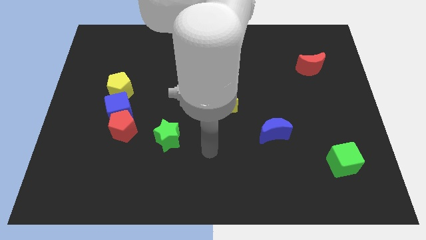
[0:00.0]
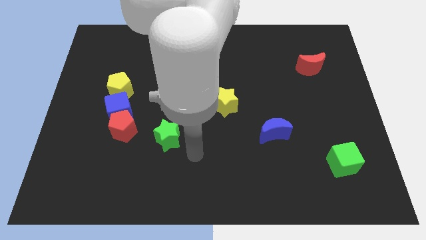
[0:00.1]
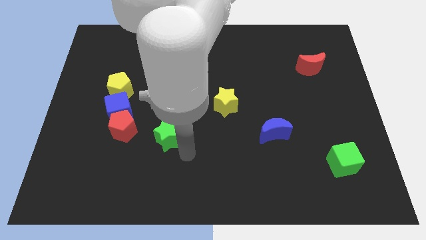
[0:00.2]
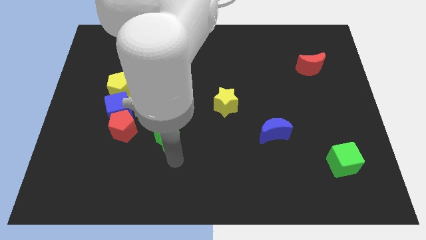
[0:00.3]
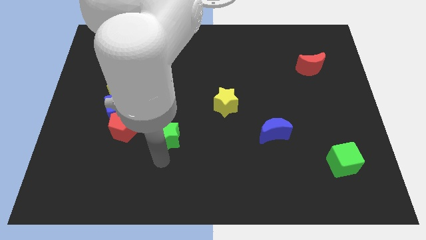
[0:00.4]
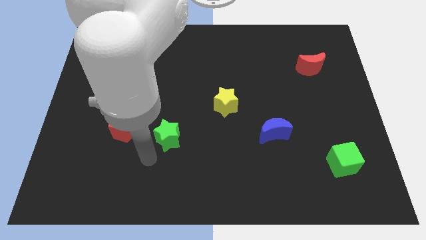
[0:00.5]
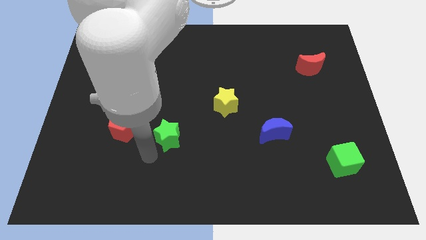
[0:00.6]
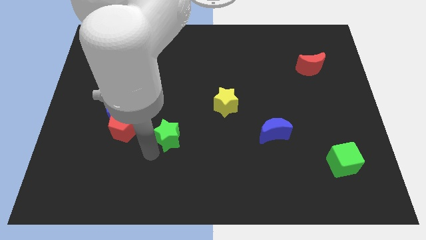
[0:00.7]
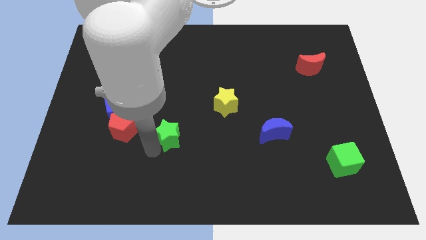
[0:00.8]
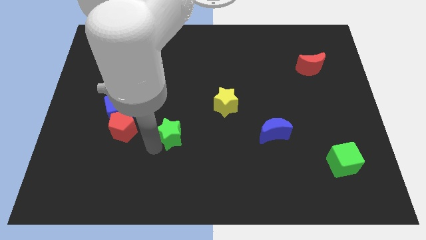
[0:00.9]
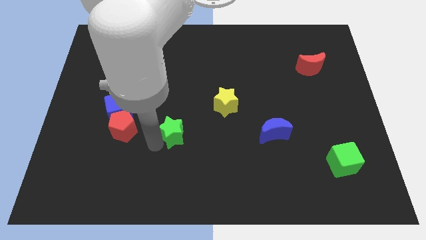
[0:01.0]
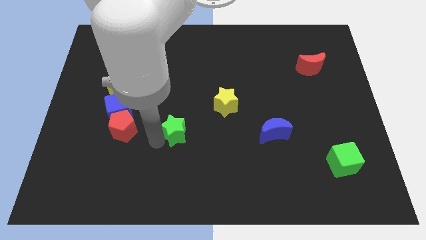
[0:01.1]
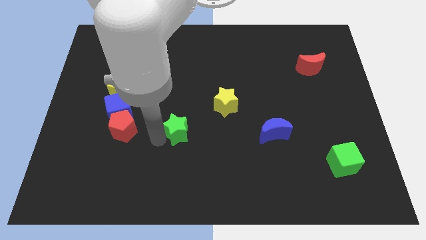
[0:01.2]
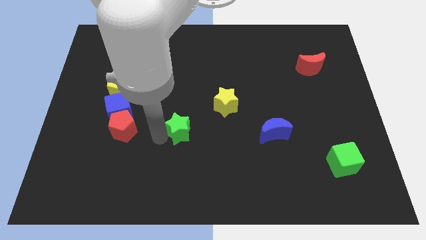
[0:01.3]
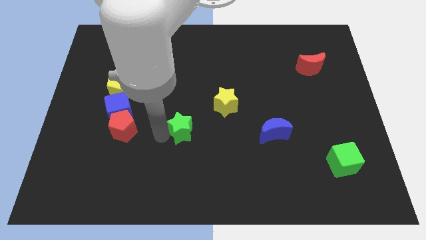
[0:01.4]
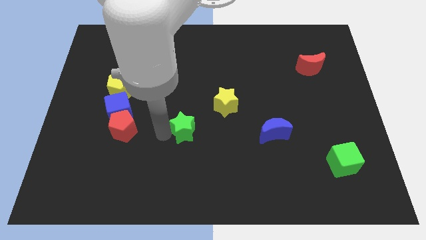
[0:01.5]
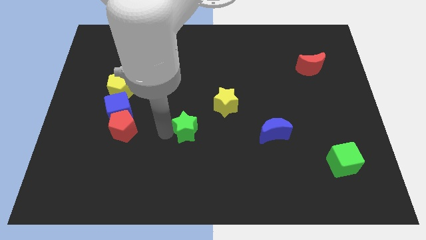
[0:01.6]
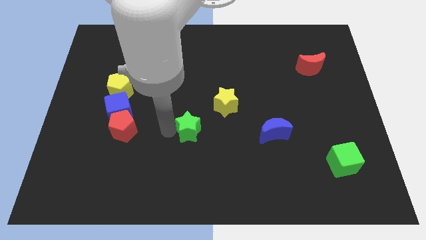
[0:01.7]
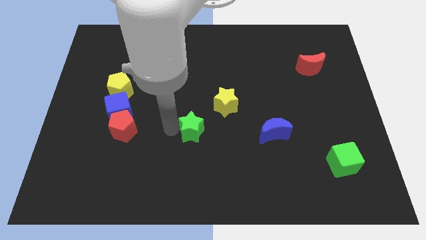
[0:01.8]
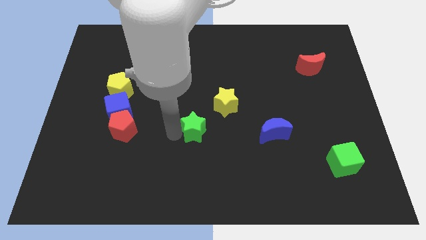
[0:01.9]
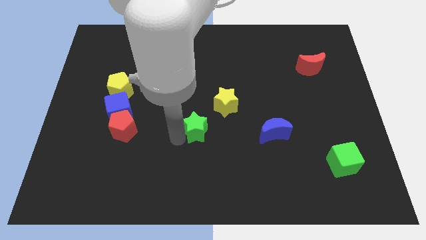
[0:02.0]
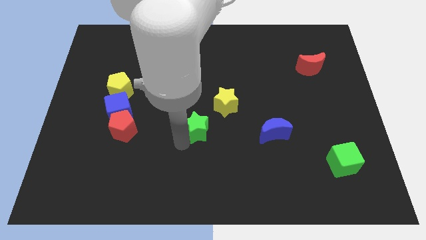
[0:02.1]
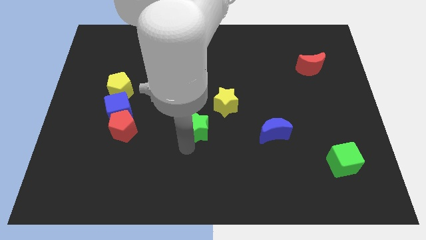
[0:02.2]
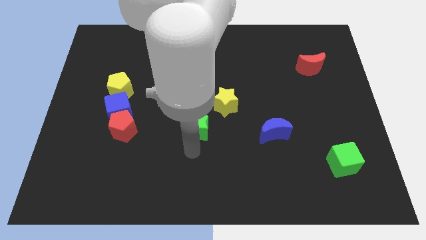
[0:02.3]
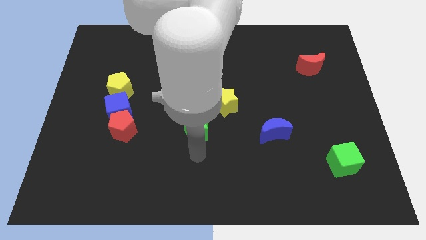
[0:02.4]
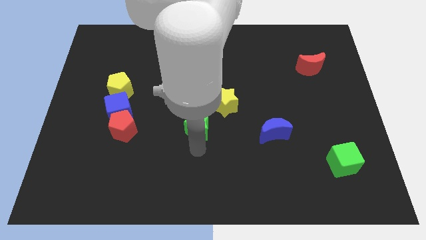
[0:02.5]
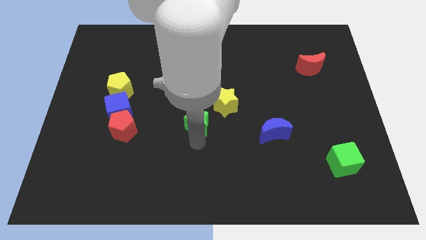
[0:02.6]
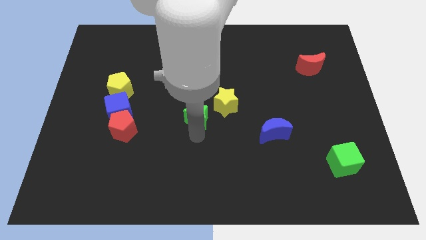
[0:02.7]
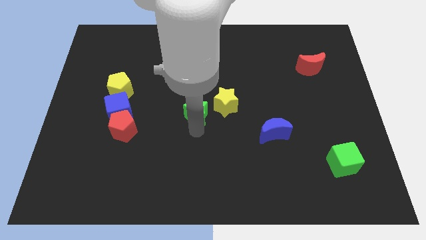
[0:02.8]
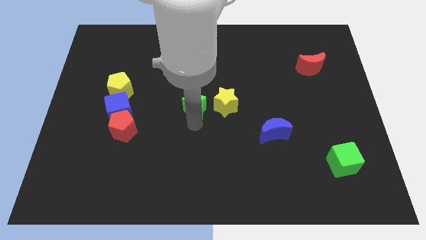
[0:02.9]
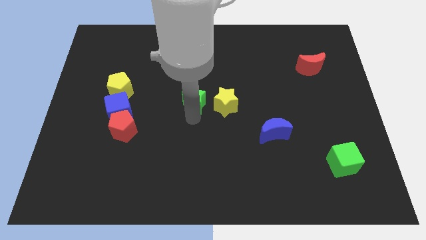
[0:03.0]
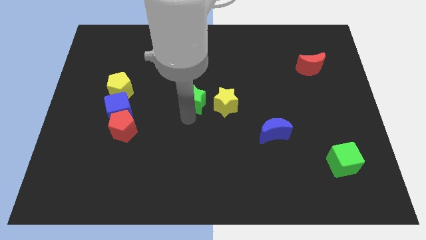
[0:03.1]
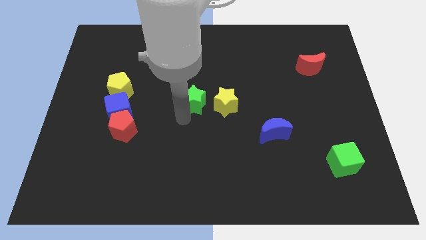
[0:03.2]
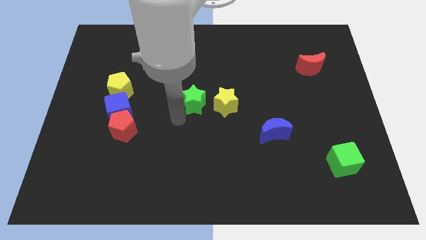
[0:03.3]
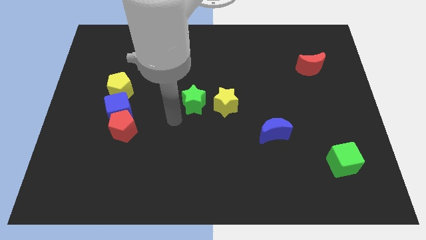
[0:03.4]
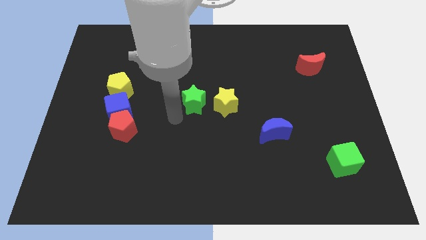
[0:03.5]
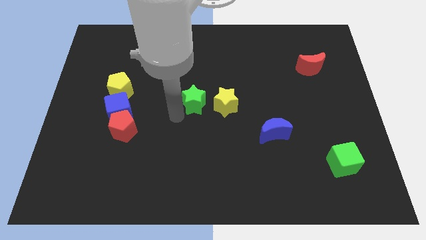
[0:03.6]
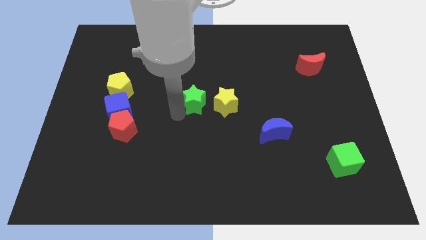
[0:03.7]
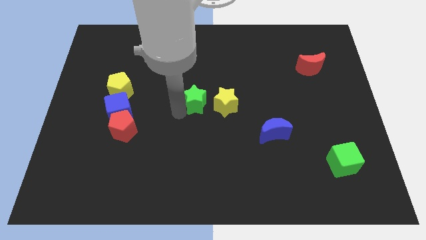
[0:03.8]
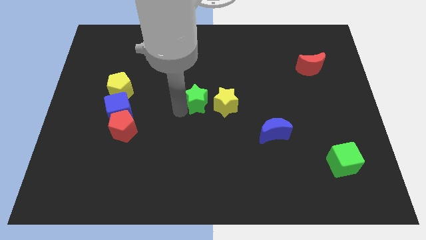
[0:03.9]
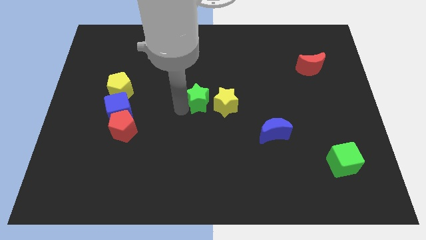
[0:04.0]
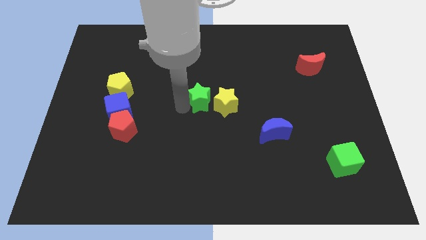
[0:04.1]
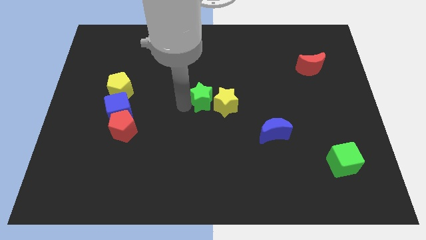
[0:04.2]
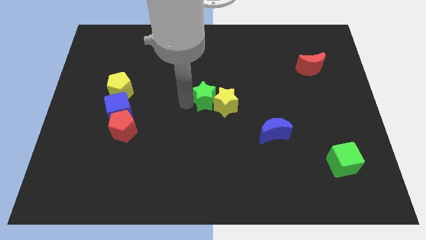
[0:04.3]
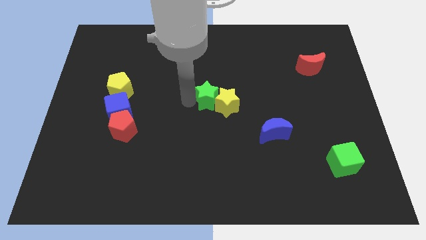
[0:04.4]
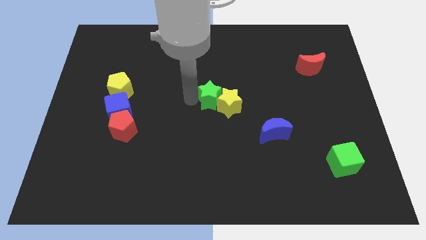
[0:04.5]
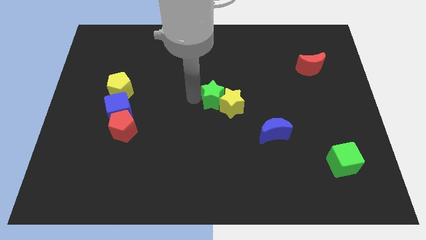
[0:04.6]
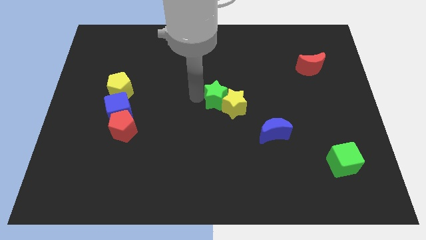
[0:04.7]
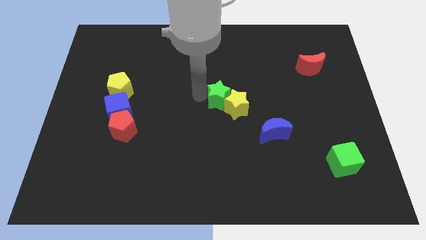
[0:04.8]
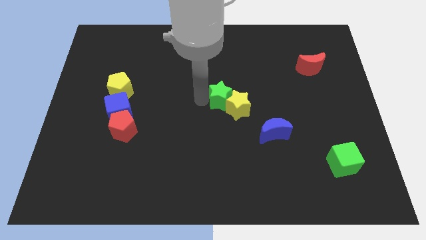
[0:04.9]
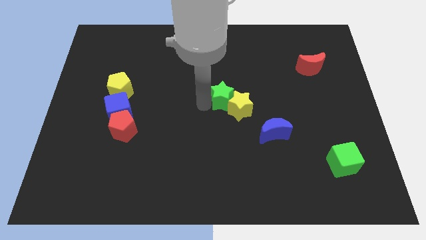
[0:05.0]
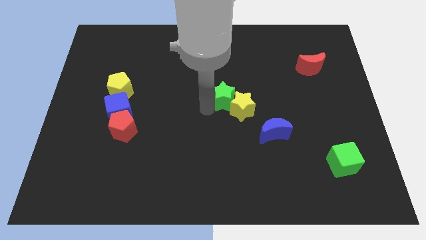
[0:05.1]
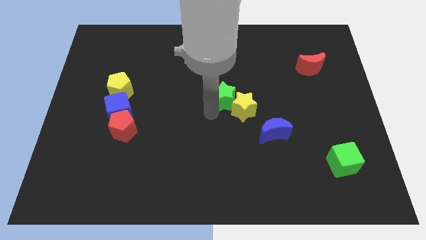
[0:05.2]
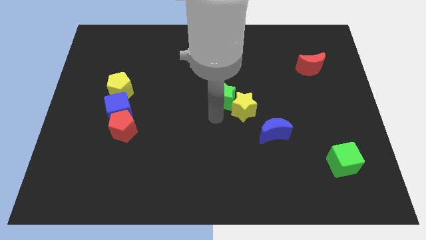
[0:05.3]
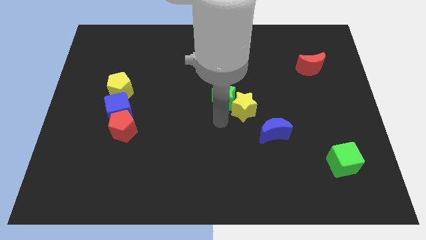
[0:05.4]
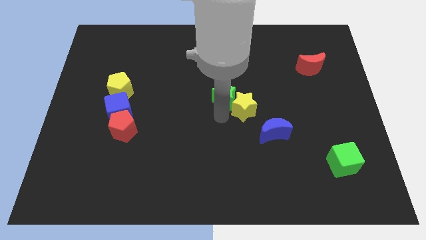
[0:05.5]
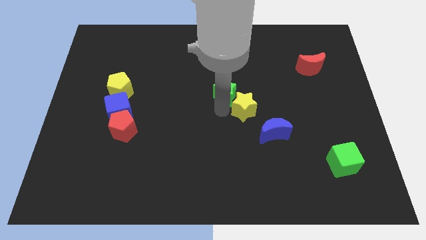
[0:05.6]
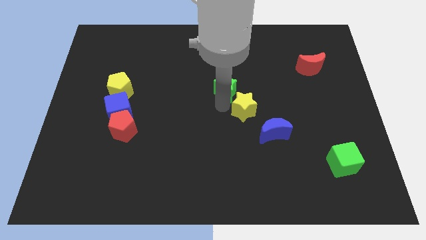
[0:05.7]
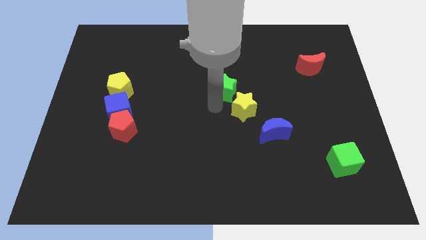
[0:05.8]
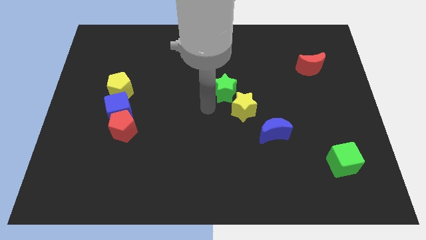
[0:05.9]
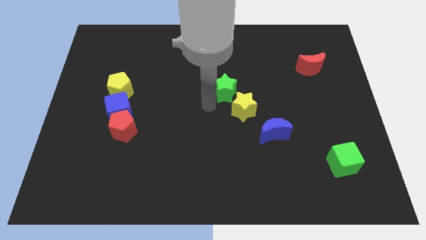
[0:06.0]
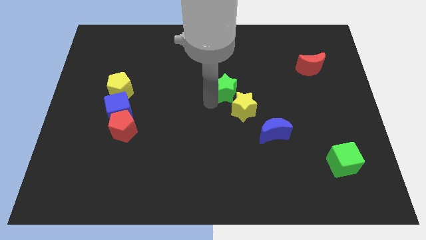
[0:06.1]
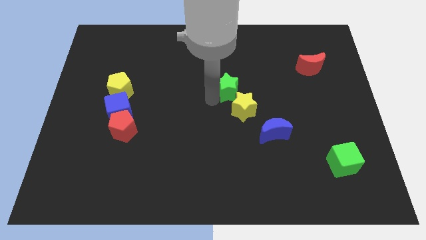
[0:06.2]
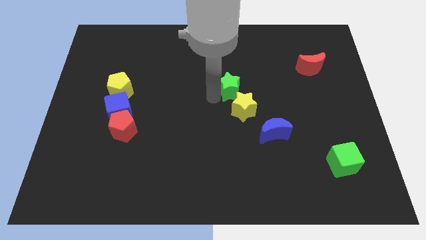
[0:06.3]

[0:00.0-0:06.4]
push the green star up and right

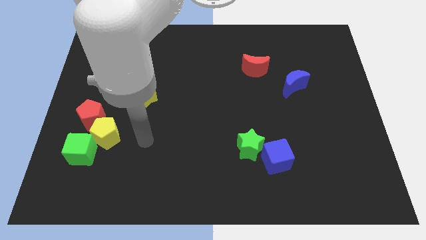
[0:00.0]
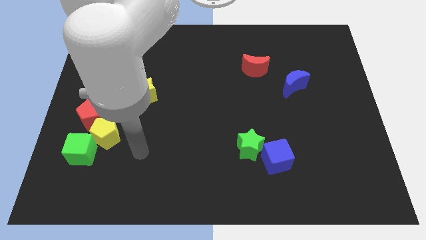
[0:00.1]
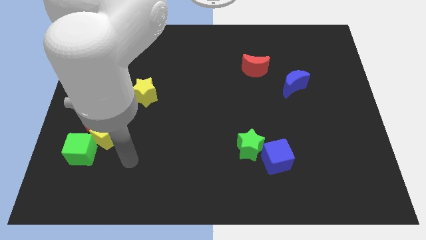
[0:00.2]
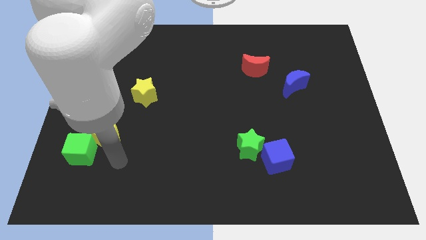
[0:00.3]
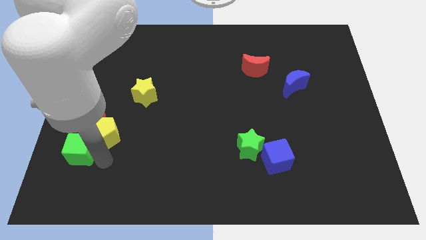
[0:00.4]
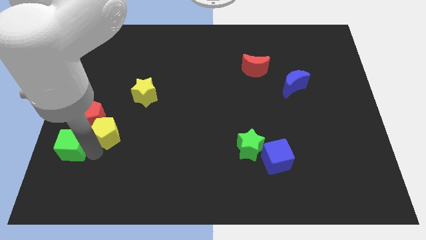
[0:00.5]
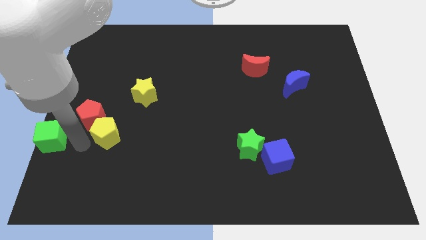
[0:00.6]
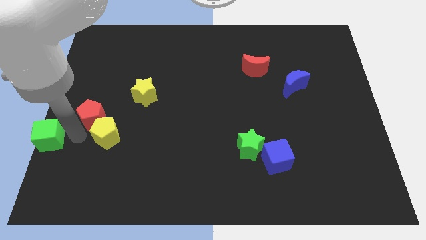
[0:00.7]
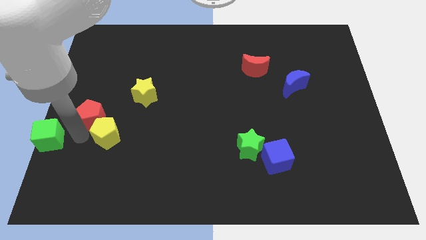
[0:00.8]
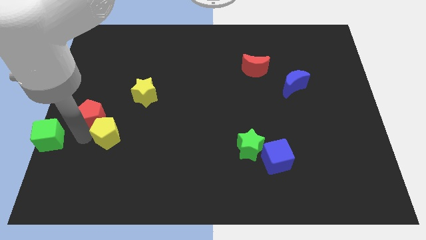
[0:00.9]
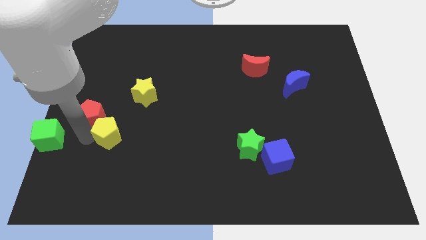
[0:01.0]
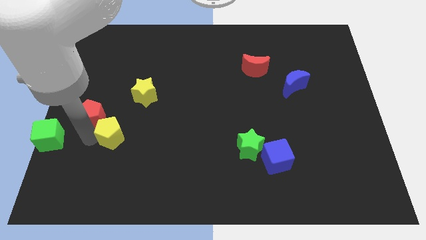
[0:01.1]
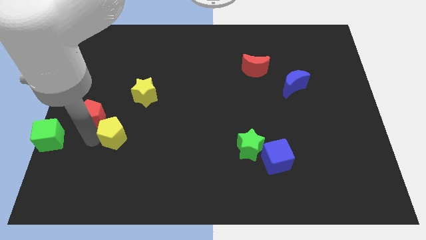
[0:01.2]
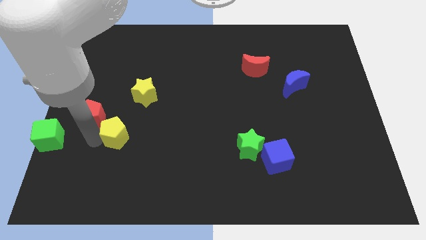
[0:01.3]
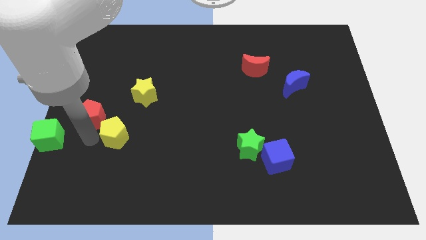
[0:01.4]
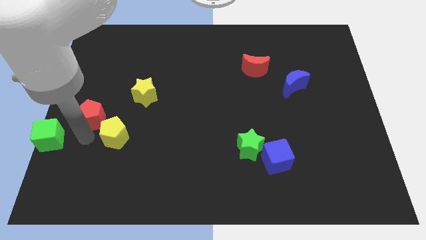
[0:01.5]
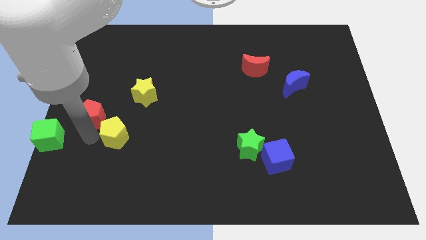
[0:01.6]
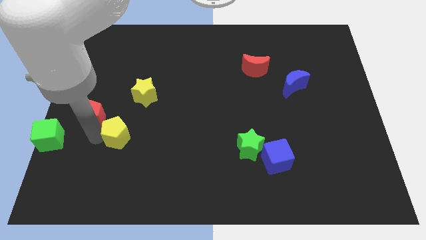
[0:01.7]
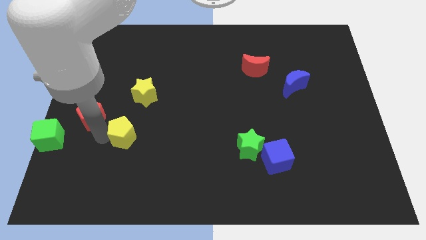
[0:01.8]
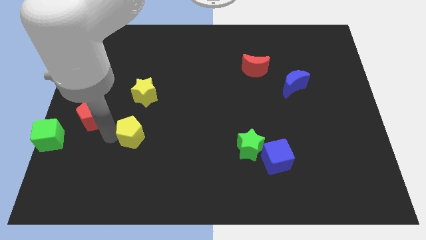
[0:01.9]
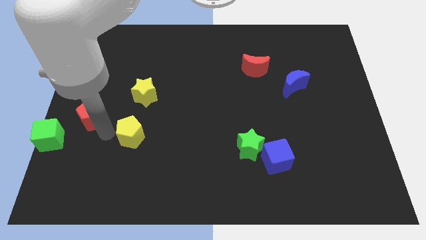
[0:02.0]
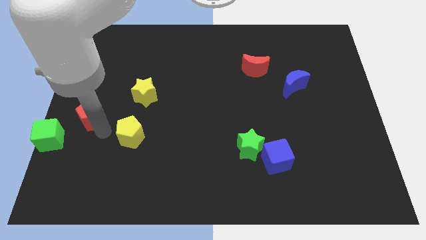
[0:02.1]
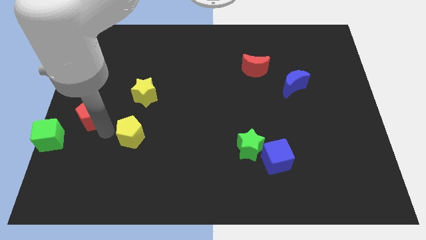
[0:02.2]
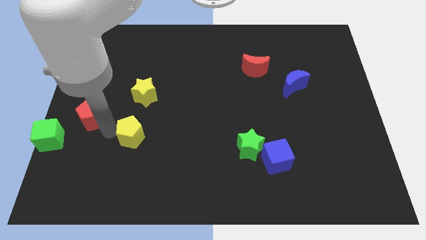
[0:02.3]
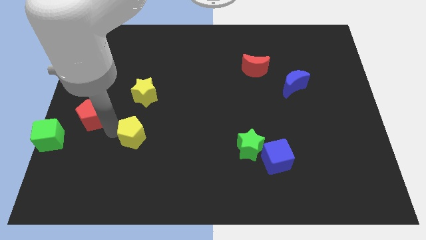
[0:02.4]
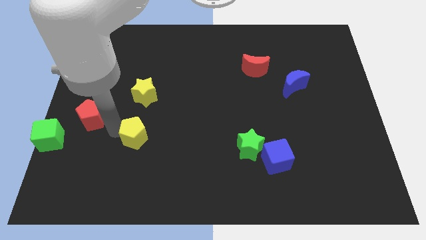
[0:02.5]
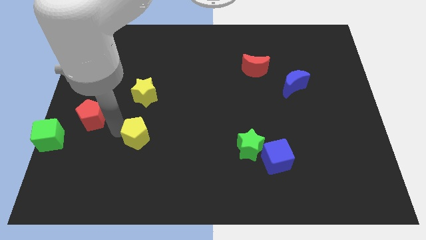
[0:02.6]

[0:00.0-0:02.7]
slide the yellow pentagon somewhat right
